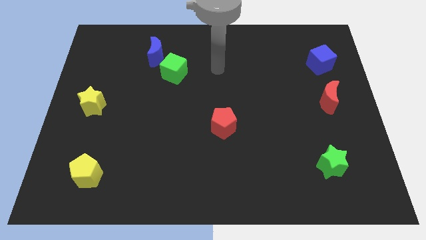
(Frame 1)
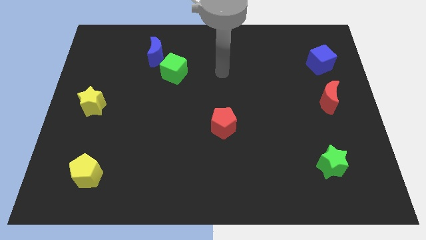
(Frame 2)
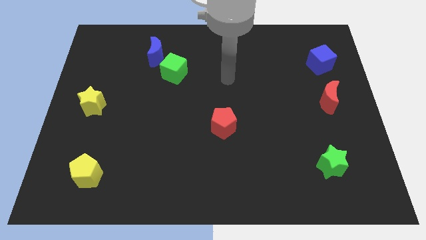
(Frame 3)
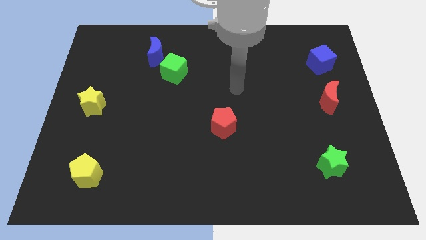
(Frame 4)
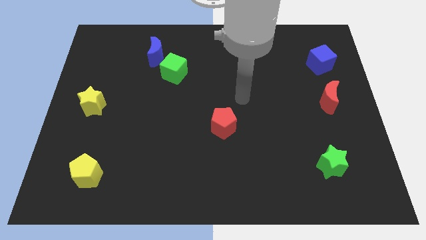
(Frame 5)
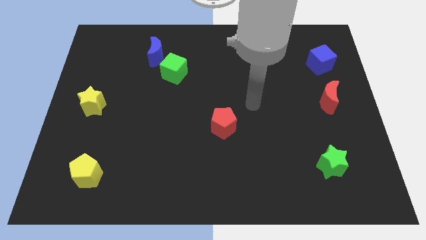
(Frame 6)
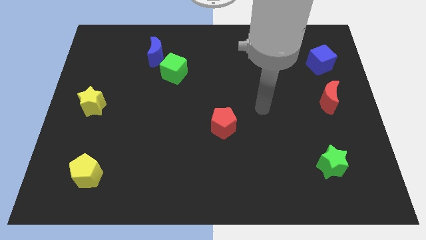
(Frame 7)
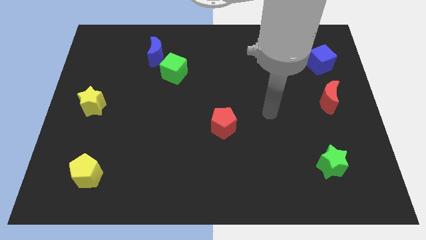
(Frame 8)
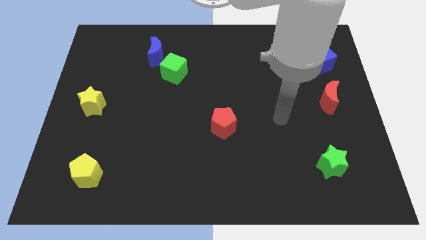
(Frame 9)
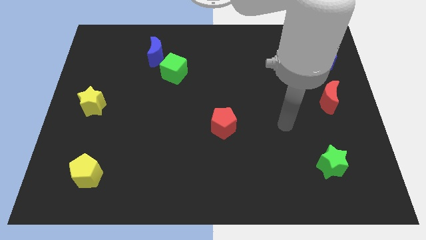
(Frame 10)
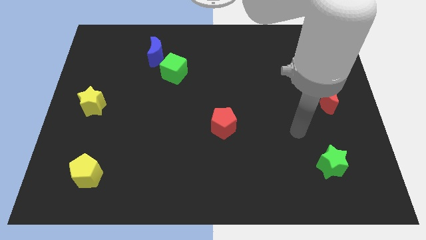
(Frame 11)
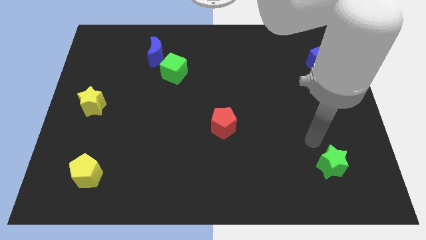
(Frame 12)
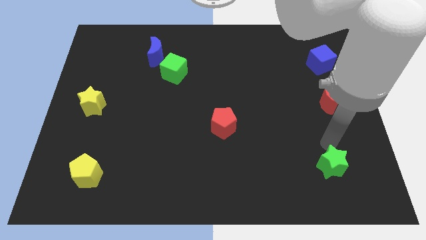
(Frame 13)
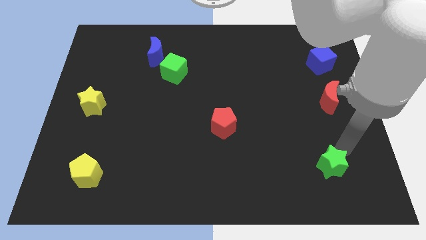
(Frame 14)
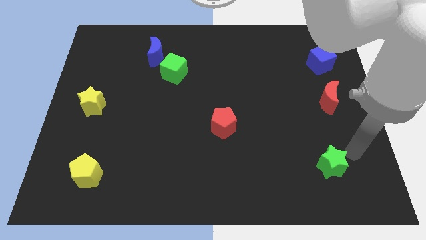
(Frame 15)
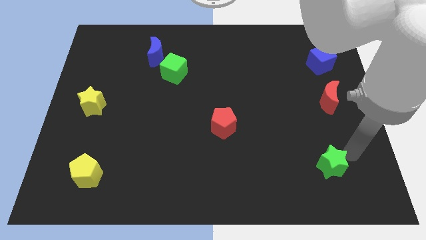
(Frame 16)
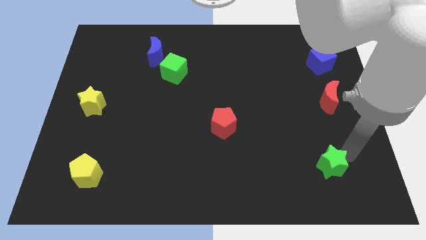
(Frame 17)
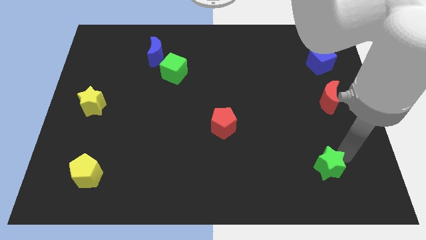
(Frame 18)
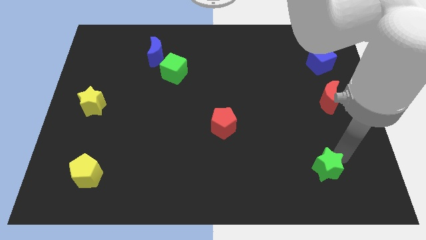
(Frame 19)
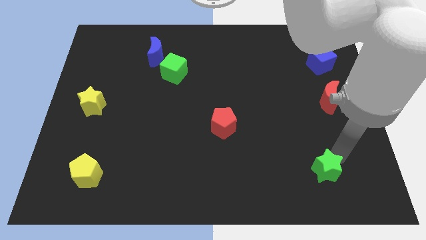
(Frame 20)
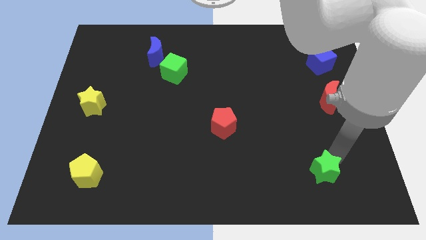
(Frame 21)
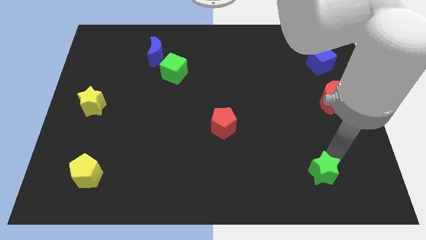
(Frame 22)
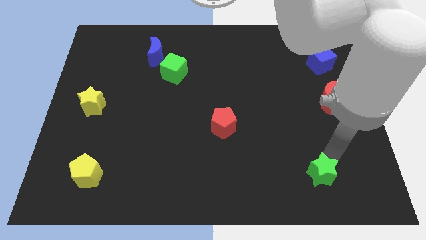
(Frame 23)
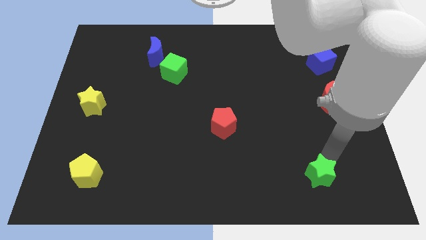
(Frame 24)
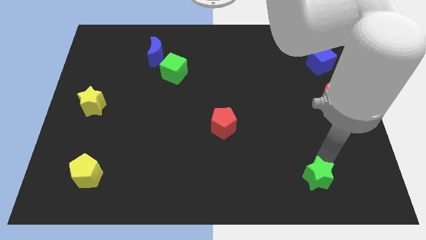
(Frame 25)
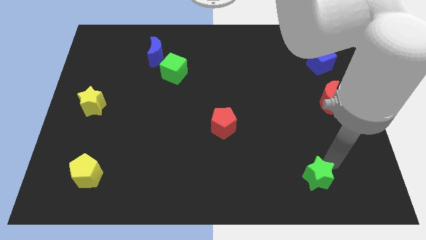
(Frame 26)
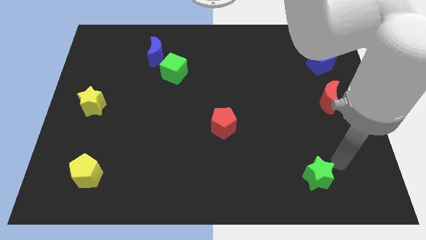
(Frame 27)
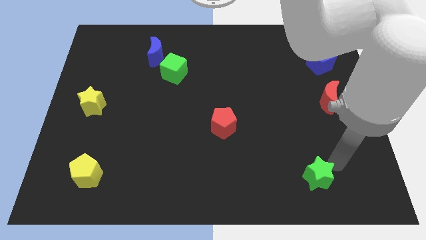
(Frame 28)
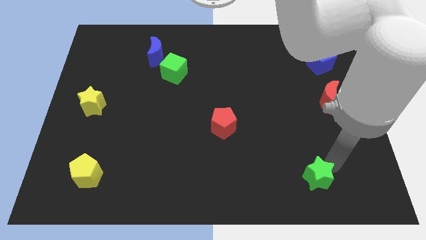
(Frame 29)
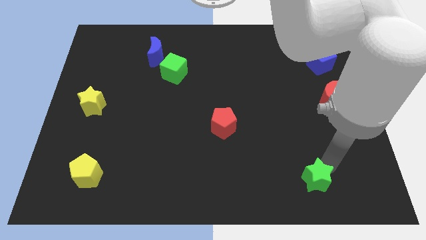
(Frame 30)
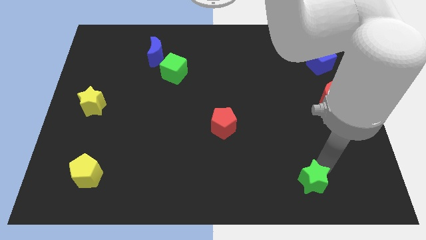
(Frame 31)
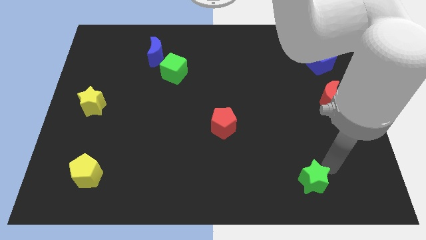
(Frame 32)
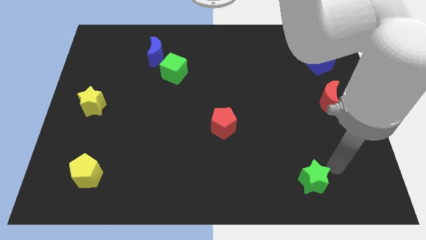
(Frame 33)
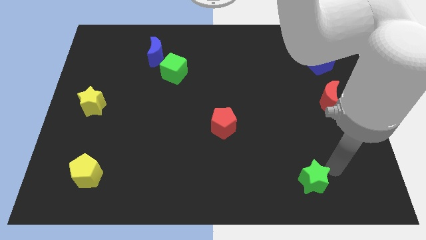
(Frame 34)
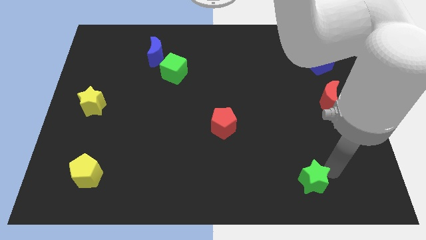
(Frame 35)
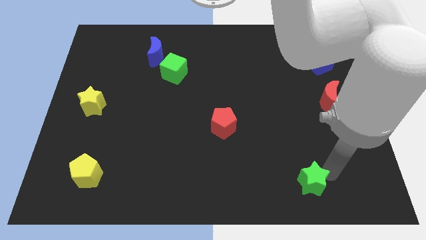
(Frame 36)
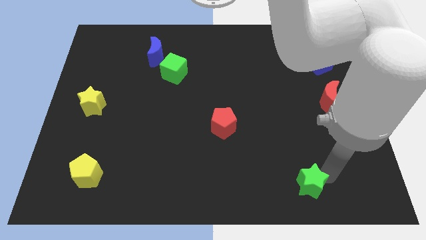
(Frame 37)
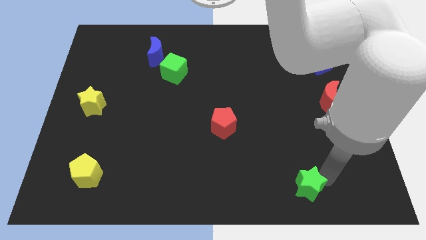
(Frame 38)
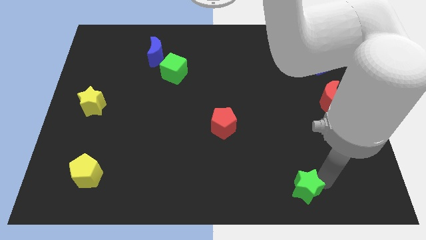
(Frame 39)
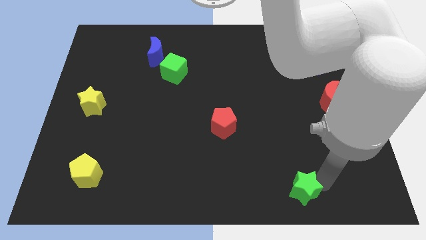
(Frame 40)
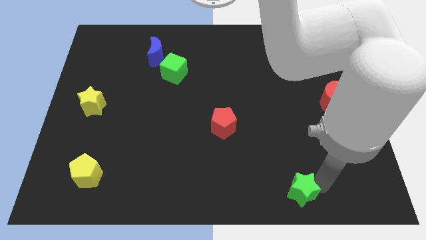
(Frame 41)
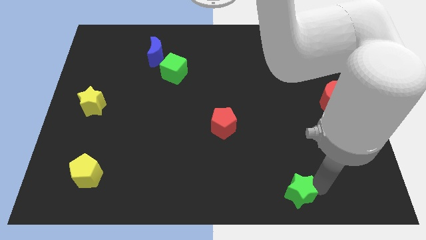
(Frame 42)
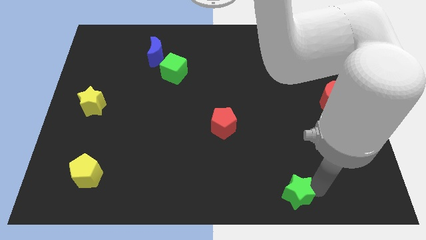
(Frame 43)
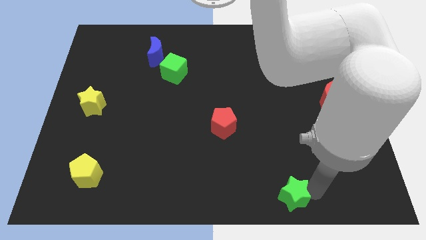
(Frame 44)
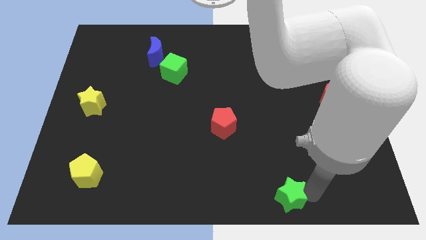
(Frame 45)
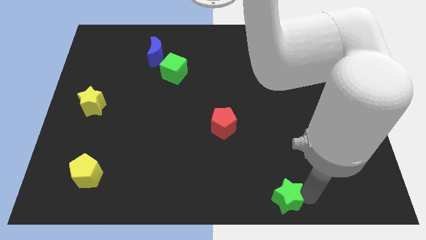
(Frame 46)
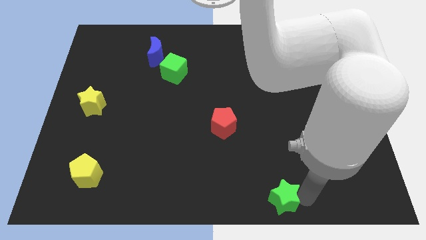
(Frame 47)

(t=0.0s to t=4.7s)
push the green star to the bottom side

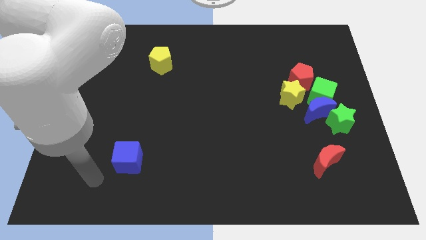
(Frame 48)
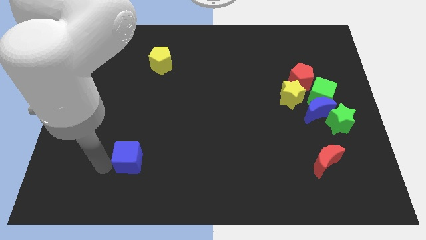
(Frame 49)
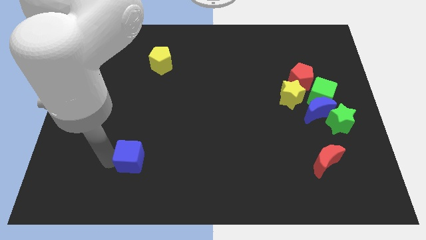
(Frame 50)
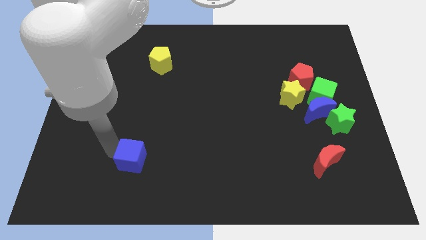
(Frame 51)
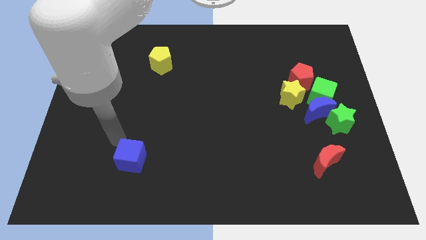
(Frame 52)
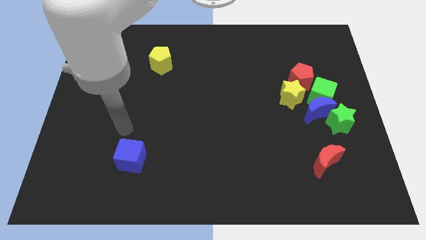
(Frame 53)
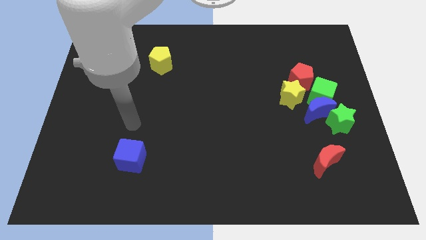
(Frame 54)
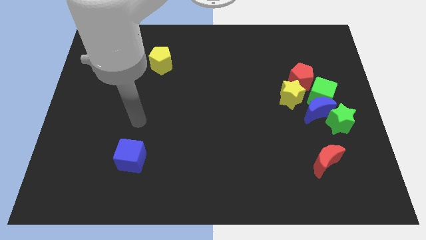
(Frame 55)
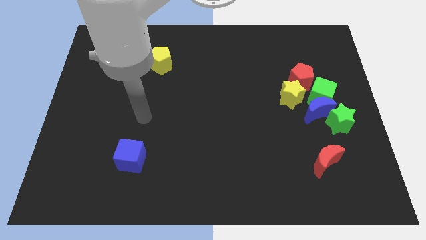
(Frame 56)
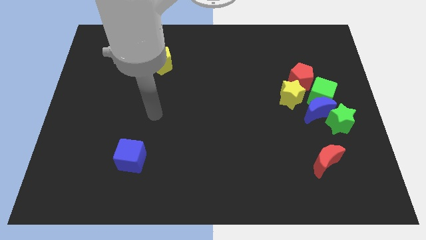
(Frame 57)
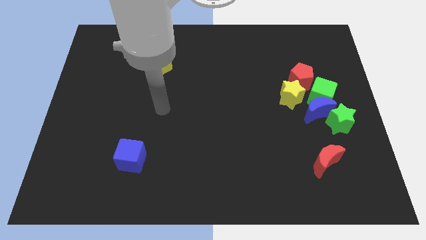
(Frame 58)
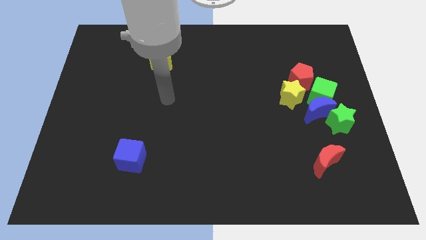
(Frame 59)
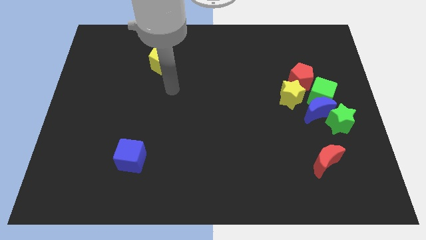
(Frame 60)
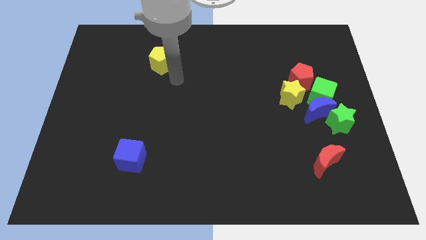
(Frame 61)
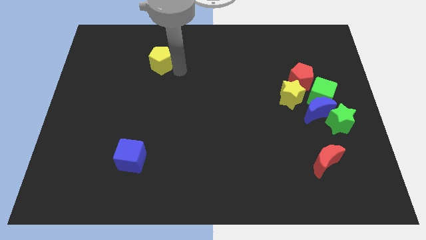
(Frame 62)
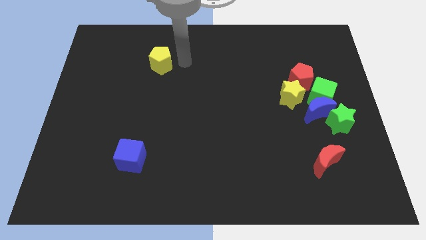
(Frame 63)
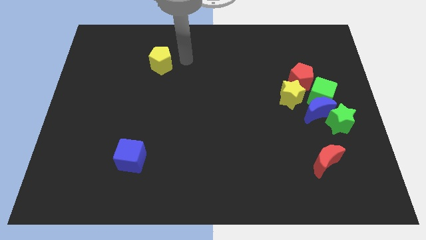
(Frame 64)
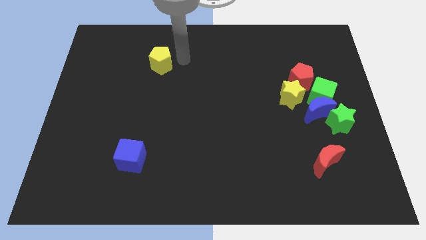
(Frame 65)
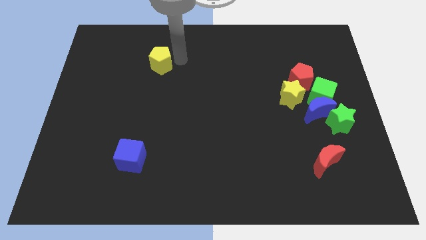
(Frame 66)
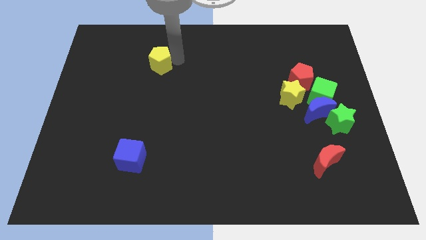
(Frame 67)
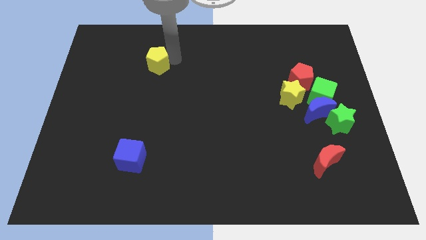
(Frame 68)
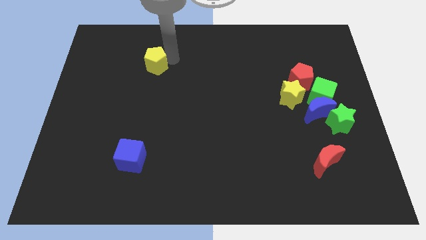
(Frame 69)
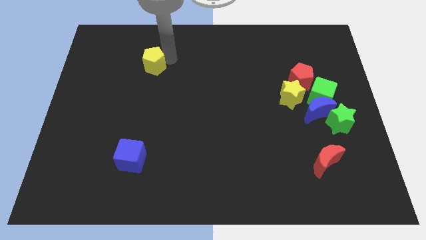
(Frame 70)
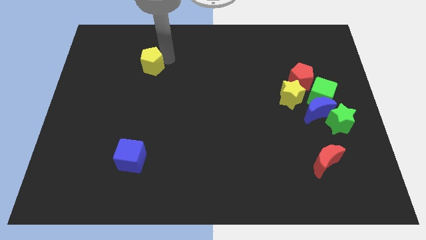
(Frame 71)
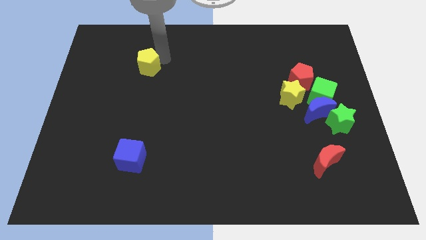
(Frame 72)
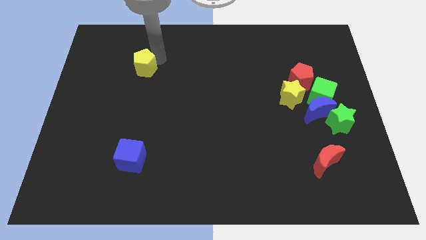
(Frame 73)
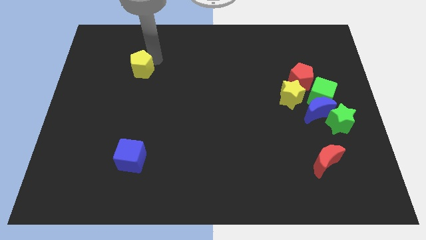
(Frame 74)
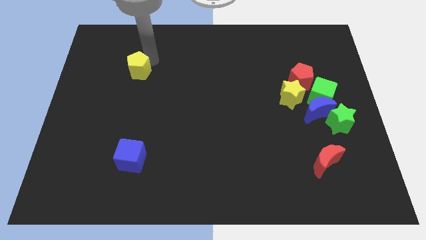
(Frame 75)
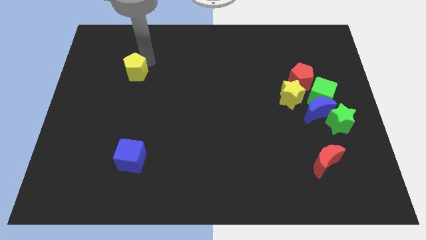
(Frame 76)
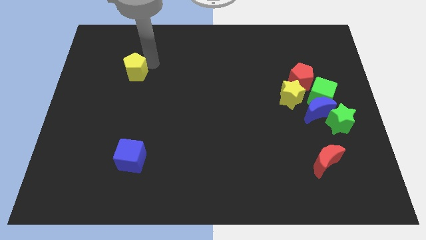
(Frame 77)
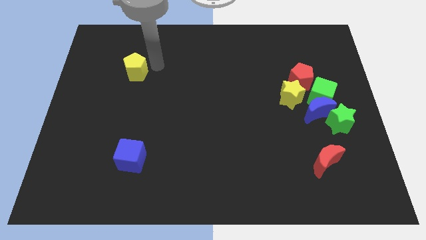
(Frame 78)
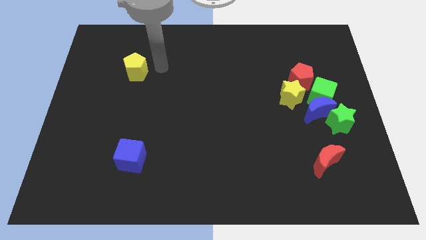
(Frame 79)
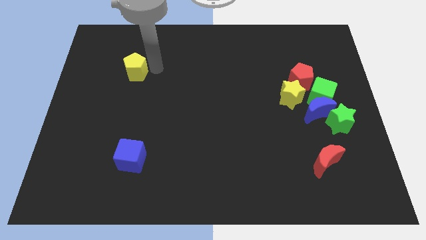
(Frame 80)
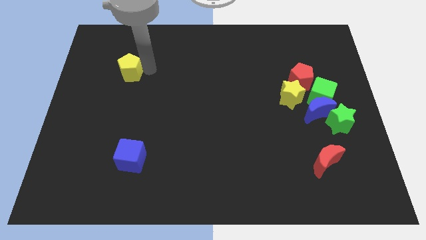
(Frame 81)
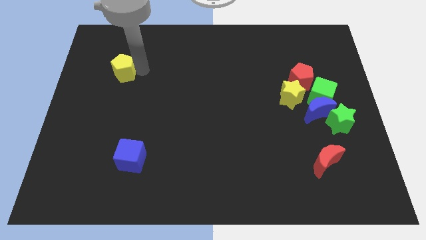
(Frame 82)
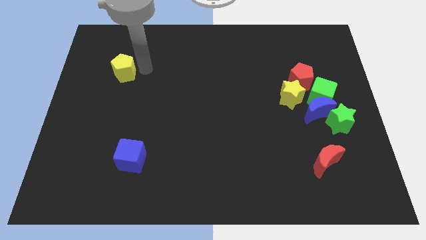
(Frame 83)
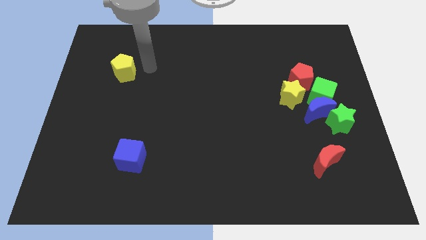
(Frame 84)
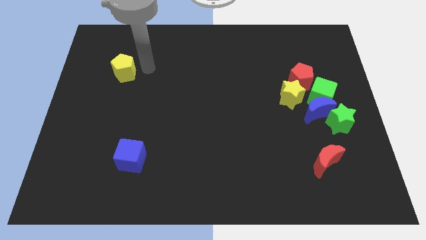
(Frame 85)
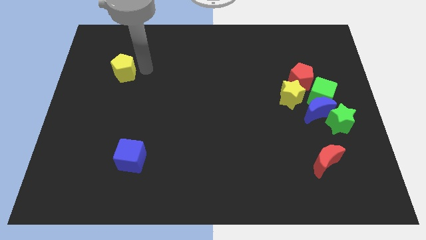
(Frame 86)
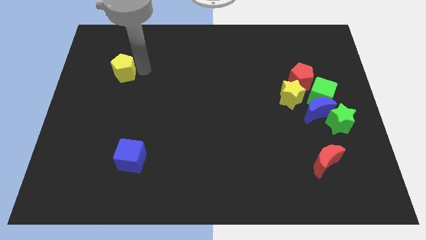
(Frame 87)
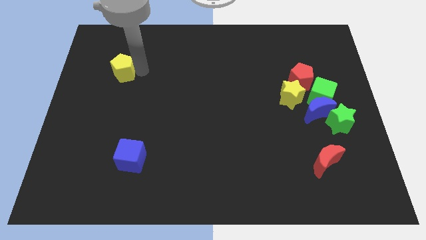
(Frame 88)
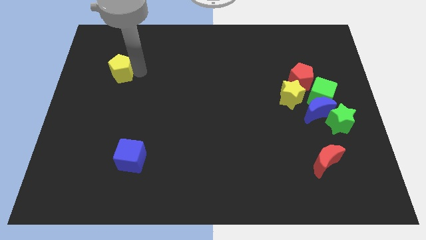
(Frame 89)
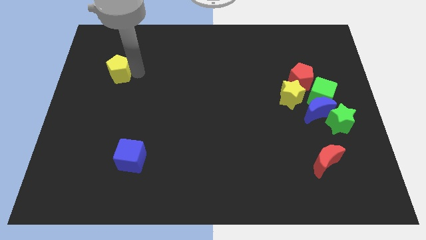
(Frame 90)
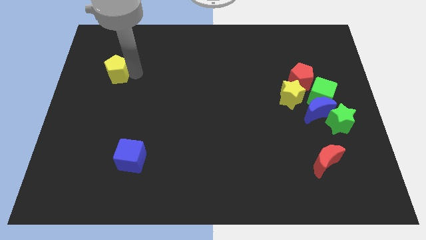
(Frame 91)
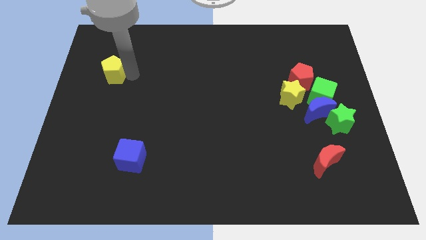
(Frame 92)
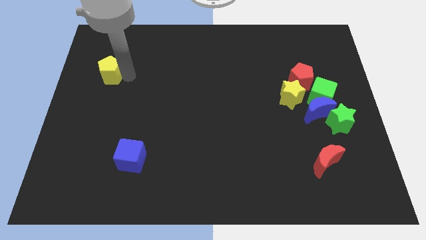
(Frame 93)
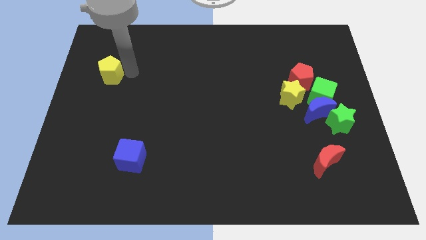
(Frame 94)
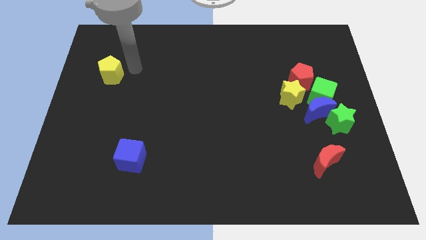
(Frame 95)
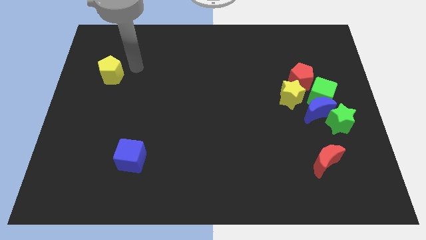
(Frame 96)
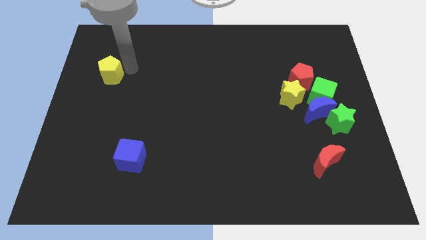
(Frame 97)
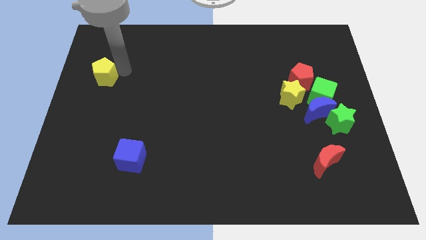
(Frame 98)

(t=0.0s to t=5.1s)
move the yellow pentagon to the center left
